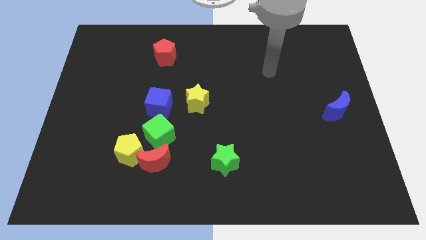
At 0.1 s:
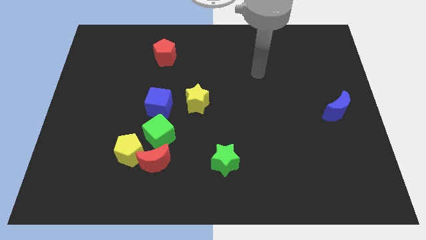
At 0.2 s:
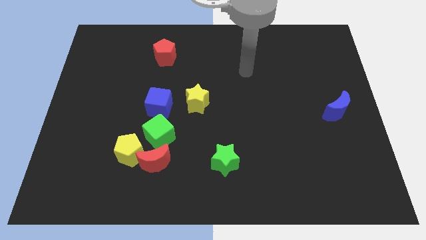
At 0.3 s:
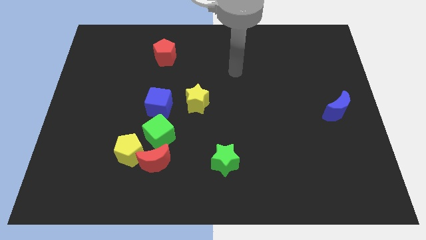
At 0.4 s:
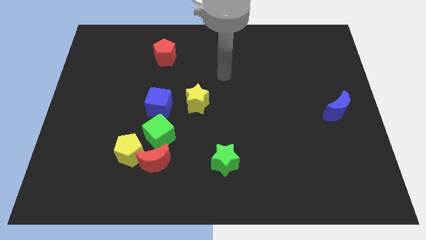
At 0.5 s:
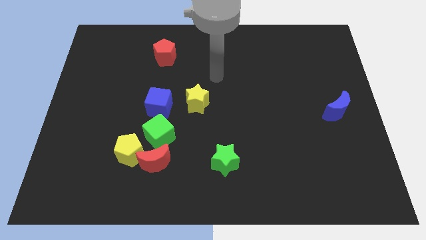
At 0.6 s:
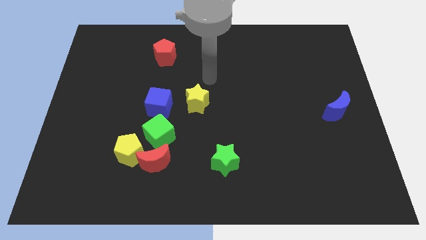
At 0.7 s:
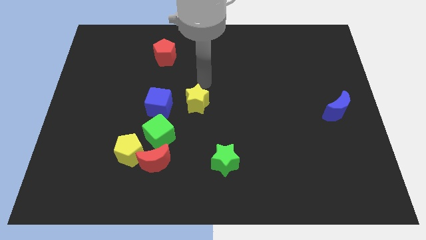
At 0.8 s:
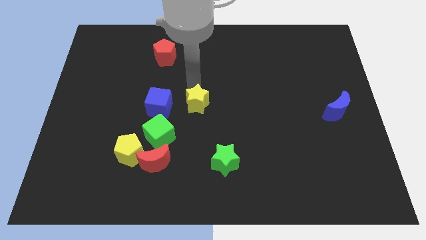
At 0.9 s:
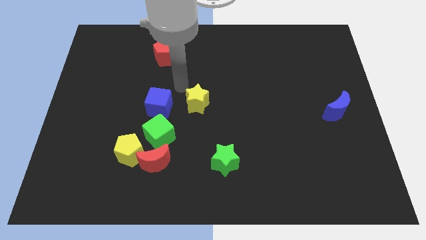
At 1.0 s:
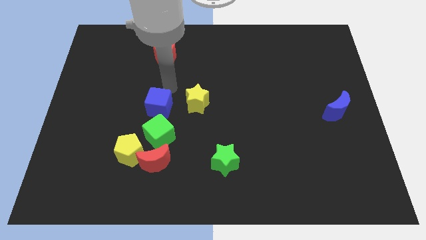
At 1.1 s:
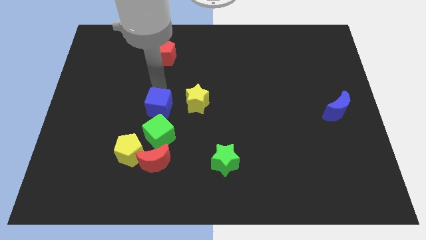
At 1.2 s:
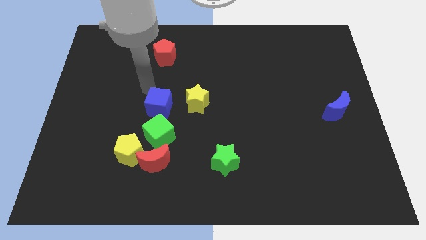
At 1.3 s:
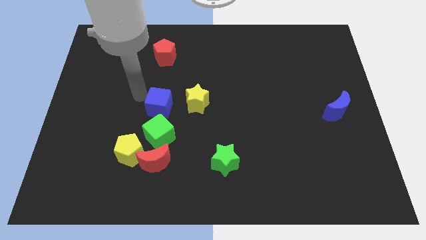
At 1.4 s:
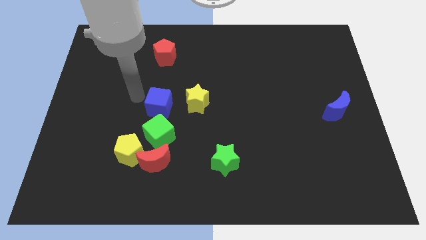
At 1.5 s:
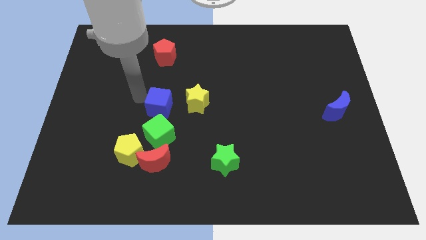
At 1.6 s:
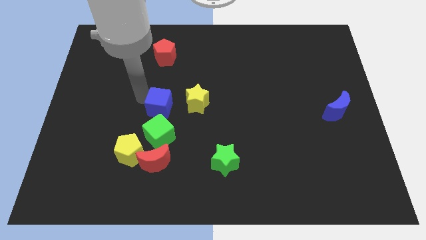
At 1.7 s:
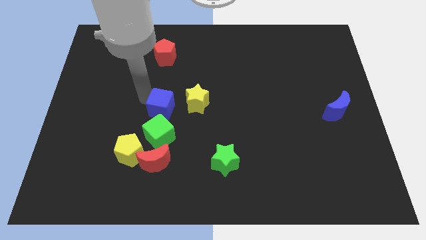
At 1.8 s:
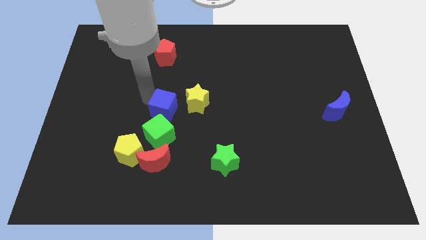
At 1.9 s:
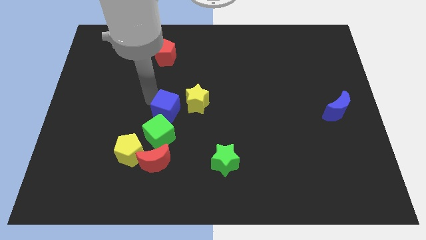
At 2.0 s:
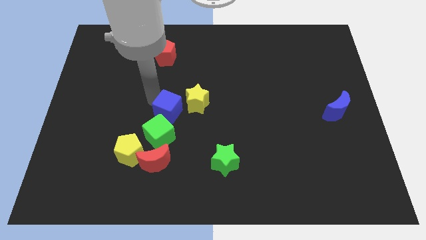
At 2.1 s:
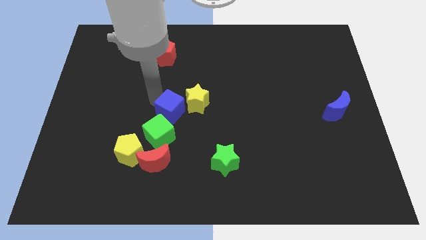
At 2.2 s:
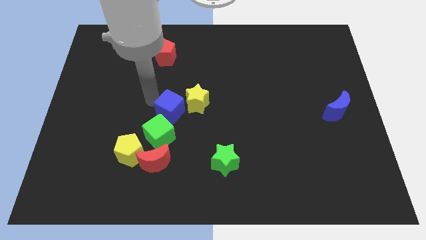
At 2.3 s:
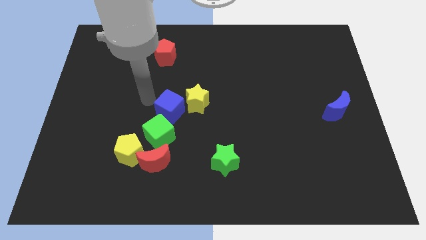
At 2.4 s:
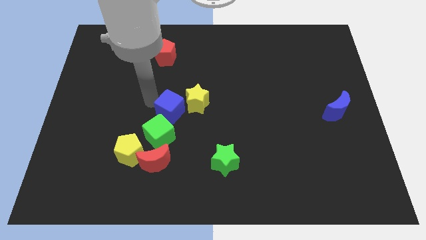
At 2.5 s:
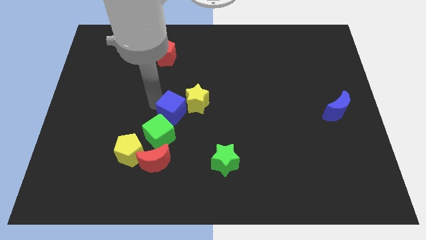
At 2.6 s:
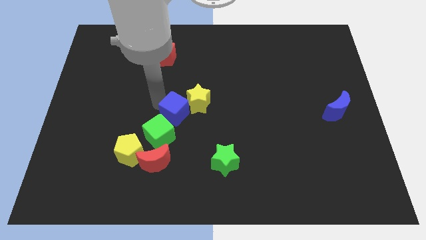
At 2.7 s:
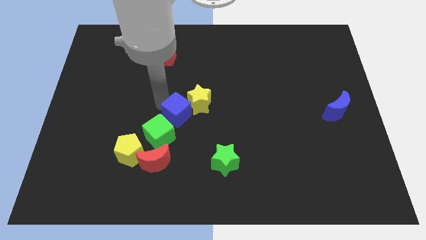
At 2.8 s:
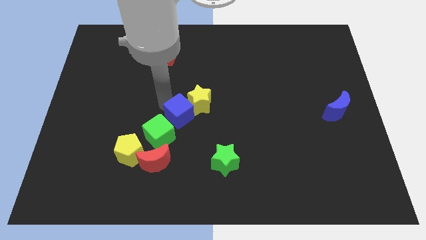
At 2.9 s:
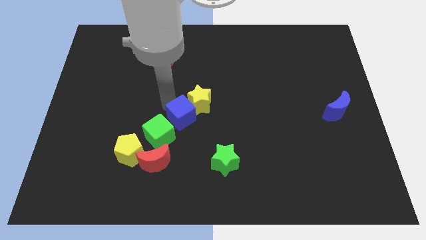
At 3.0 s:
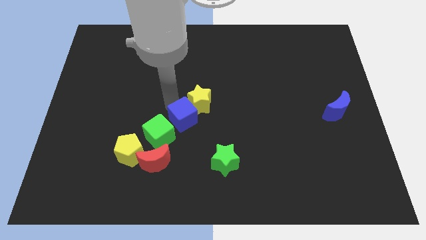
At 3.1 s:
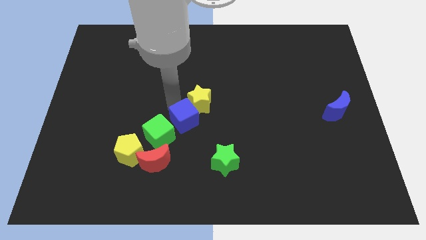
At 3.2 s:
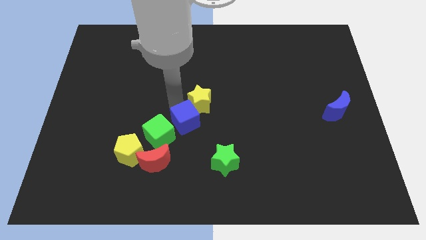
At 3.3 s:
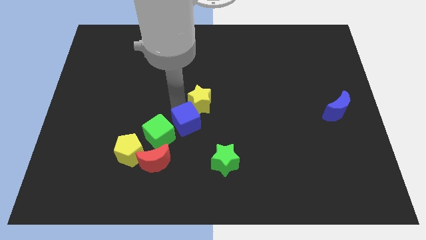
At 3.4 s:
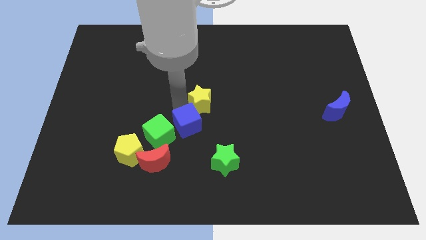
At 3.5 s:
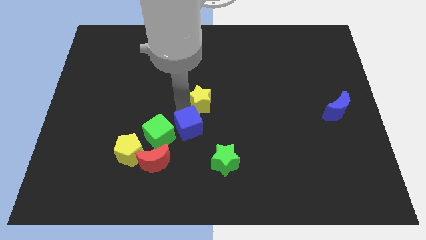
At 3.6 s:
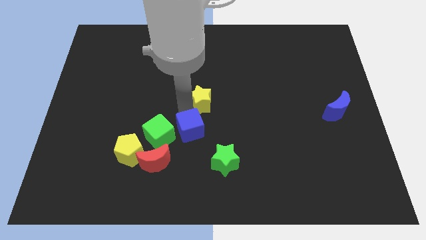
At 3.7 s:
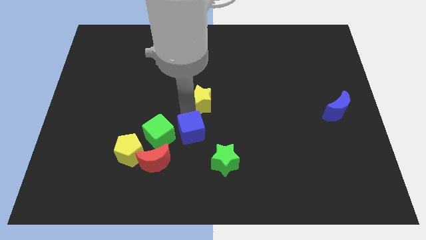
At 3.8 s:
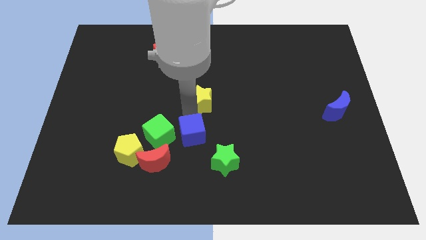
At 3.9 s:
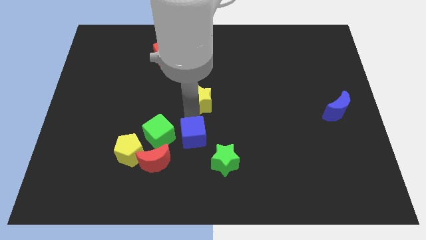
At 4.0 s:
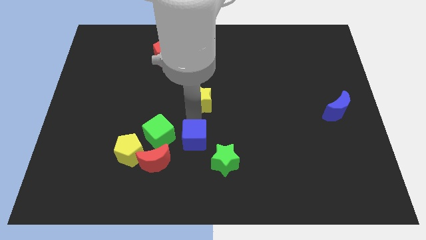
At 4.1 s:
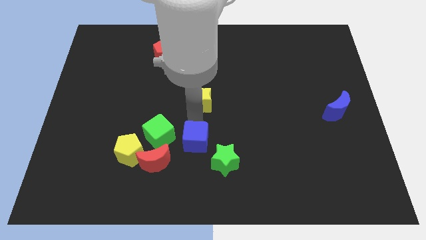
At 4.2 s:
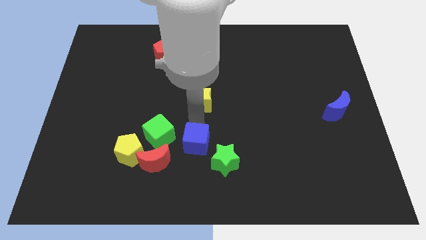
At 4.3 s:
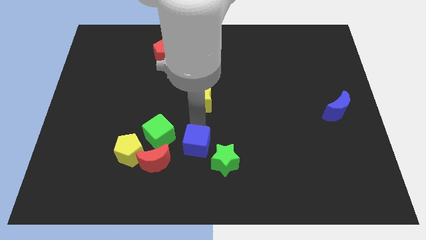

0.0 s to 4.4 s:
slightly move the blue cube downwards

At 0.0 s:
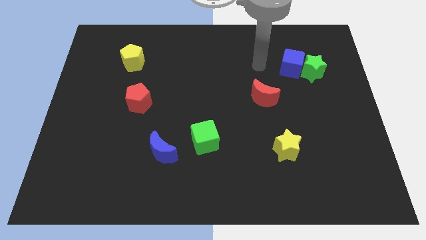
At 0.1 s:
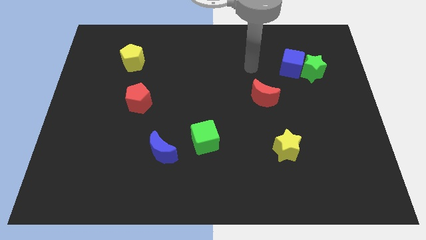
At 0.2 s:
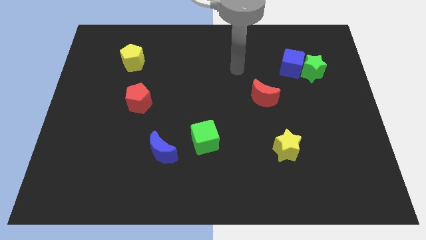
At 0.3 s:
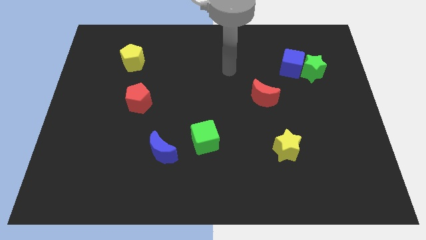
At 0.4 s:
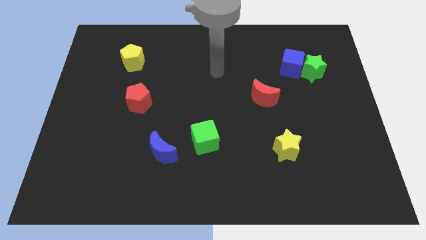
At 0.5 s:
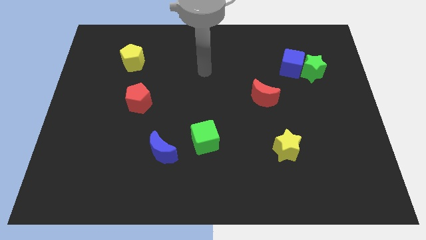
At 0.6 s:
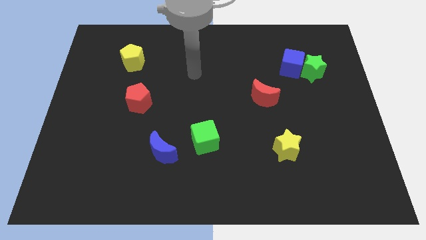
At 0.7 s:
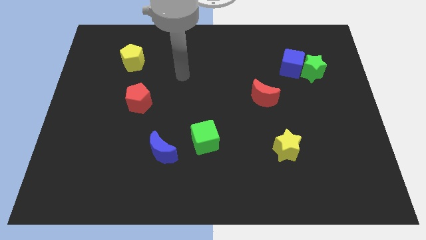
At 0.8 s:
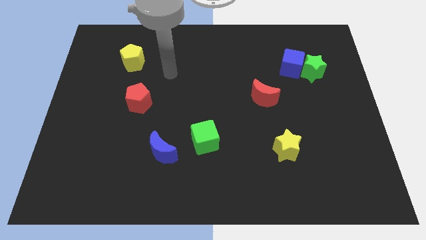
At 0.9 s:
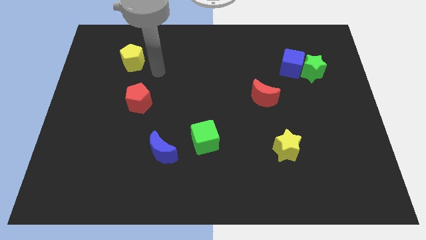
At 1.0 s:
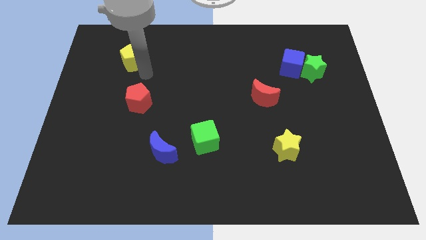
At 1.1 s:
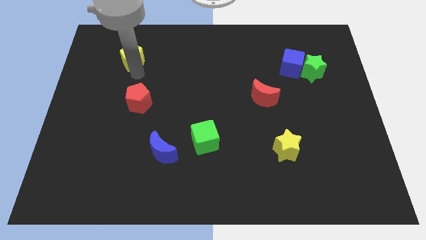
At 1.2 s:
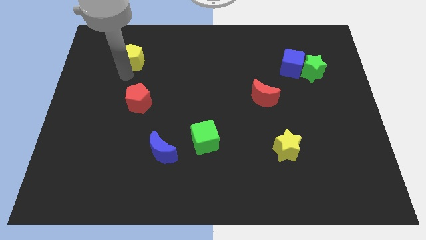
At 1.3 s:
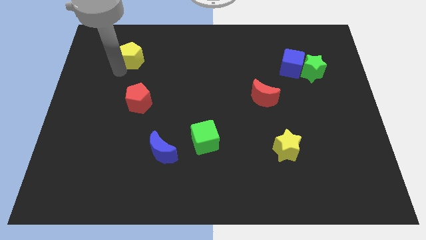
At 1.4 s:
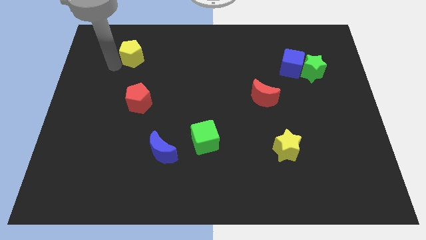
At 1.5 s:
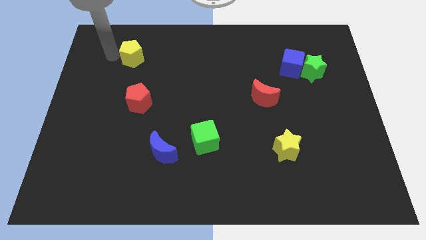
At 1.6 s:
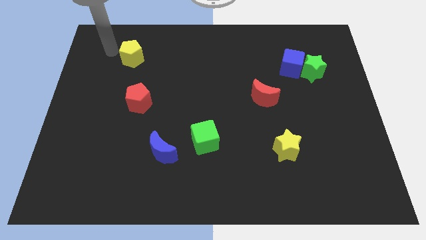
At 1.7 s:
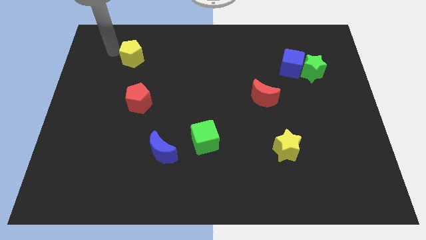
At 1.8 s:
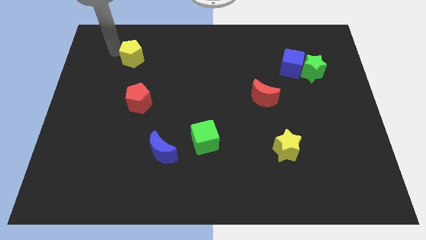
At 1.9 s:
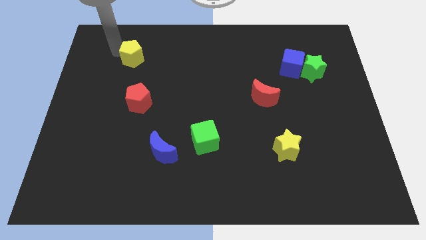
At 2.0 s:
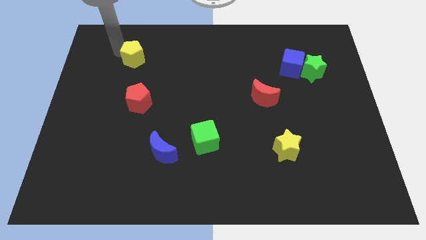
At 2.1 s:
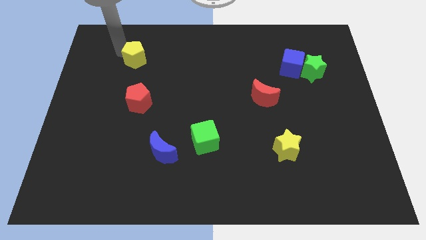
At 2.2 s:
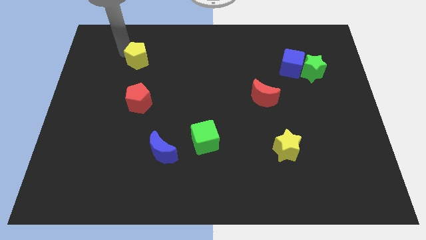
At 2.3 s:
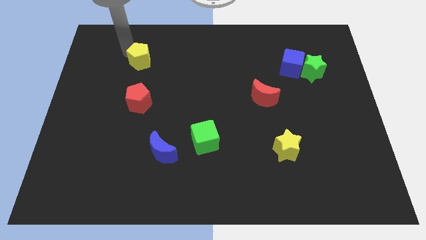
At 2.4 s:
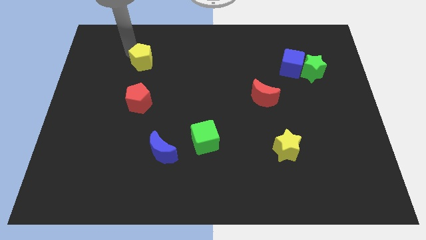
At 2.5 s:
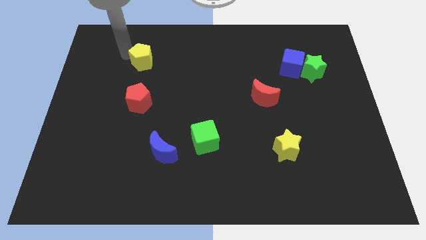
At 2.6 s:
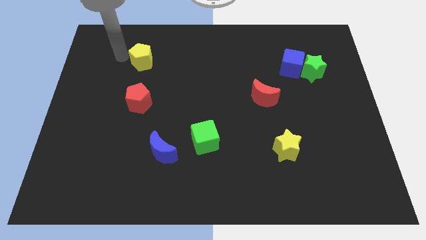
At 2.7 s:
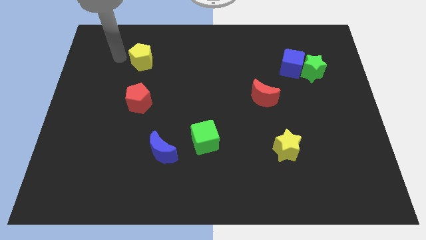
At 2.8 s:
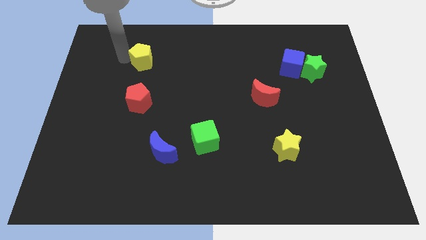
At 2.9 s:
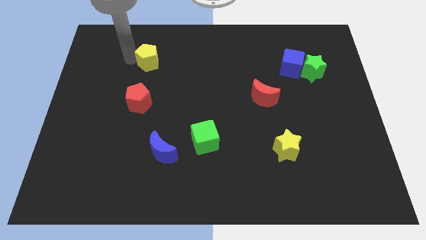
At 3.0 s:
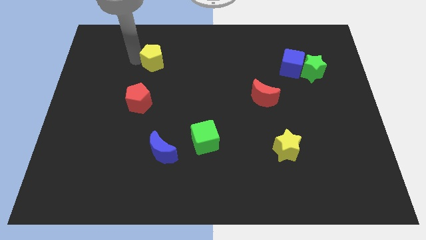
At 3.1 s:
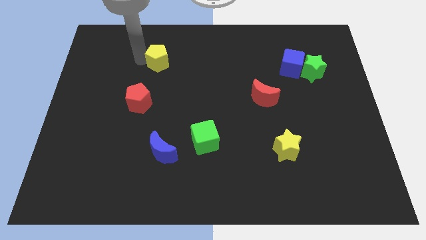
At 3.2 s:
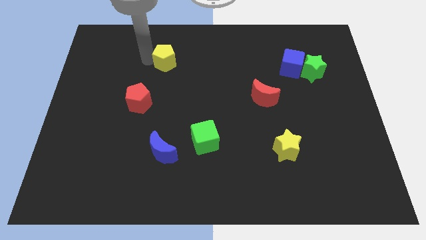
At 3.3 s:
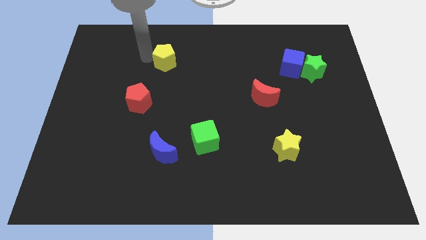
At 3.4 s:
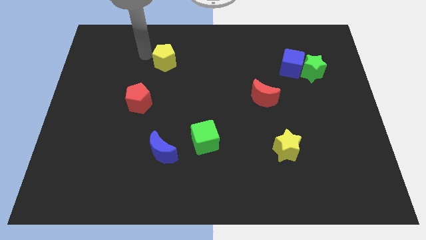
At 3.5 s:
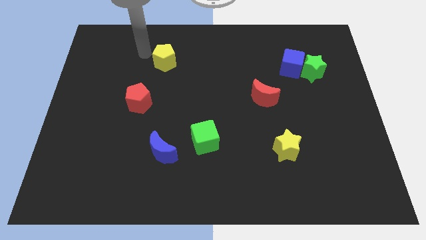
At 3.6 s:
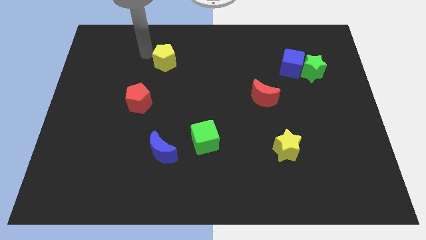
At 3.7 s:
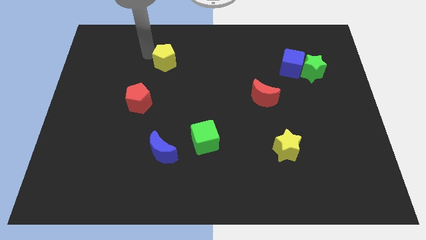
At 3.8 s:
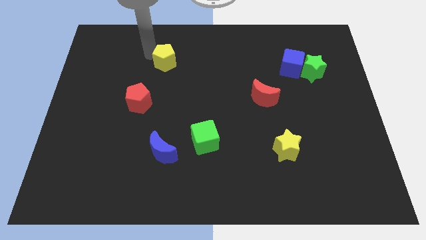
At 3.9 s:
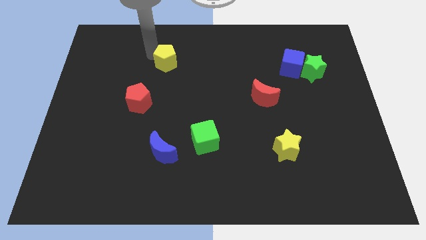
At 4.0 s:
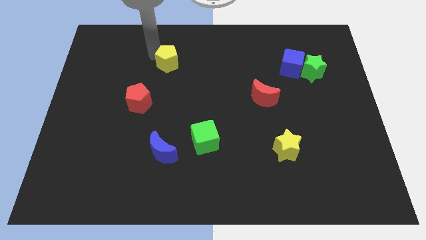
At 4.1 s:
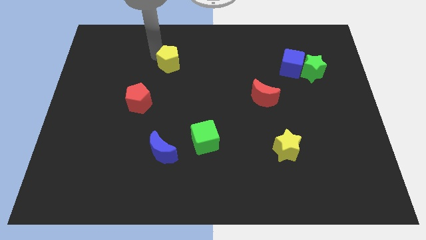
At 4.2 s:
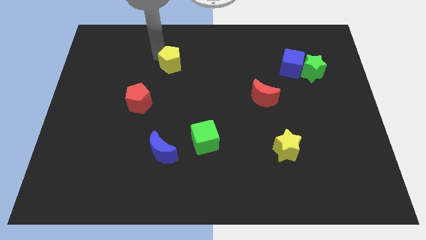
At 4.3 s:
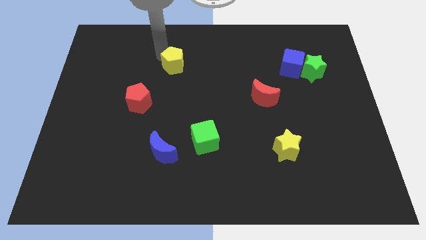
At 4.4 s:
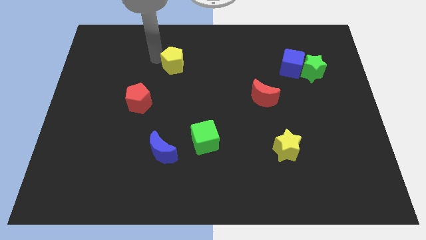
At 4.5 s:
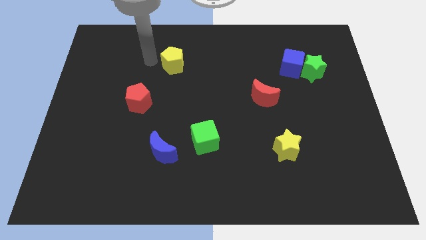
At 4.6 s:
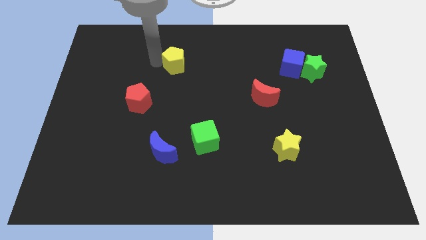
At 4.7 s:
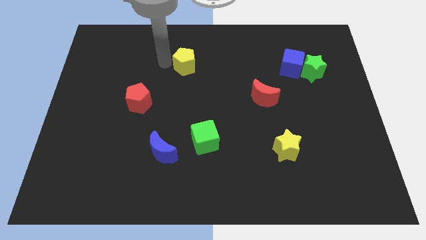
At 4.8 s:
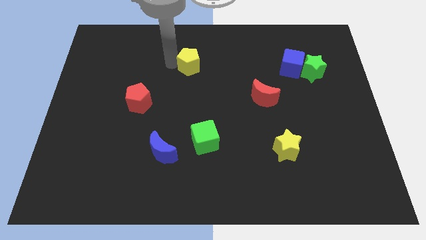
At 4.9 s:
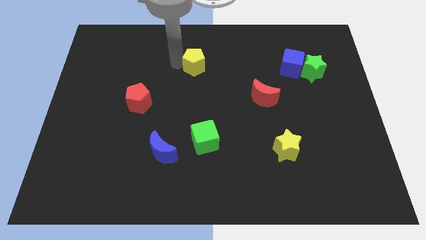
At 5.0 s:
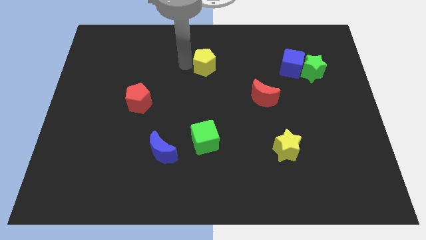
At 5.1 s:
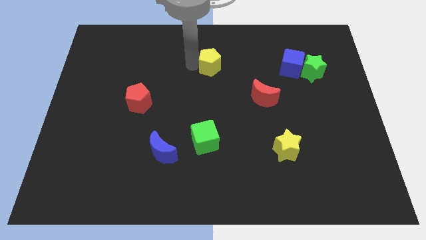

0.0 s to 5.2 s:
move the yellow pentagon to the right
